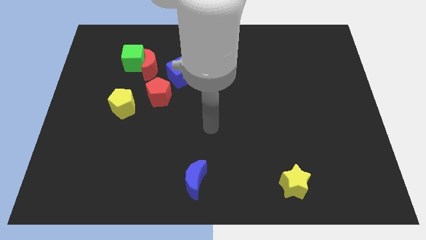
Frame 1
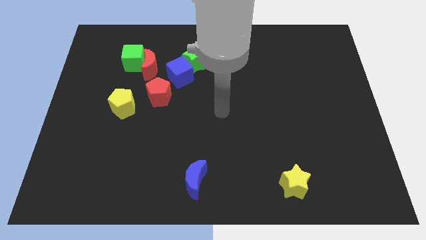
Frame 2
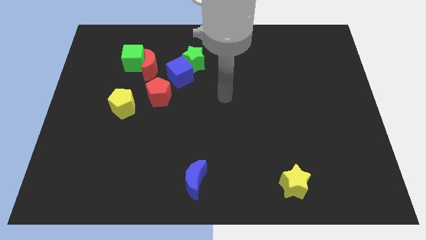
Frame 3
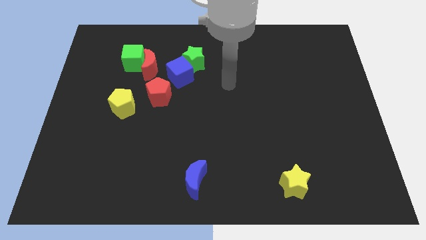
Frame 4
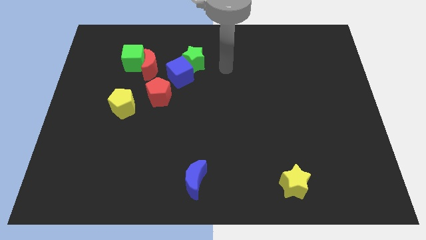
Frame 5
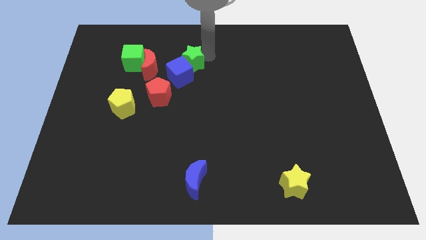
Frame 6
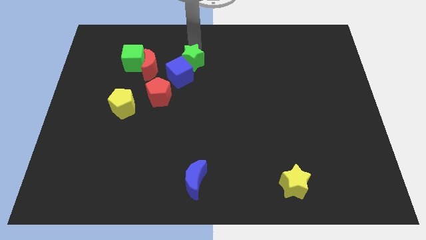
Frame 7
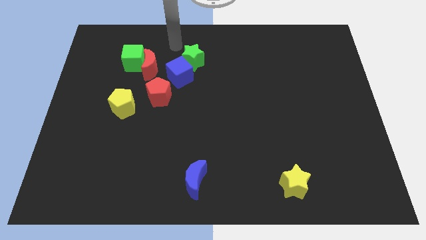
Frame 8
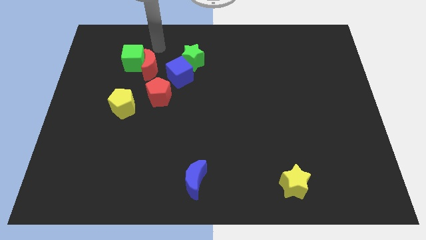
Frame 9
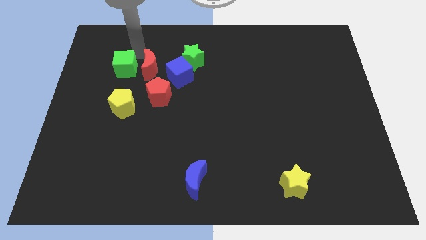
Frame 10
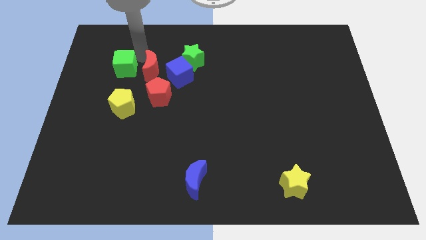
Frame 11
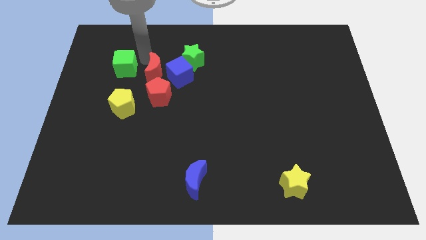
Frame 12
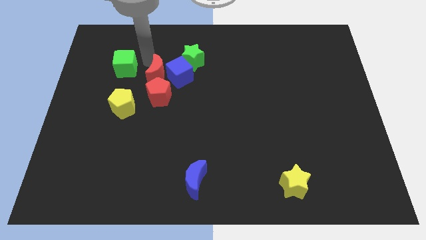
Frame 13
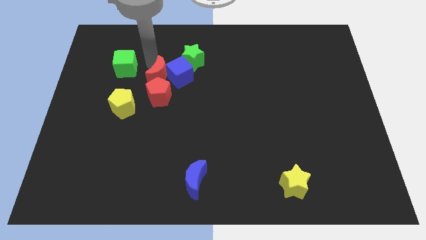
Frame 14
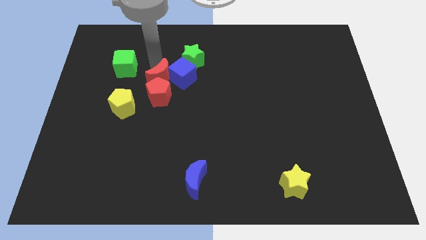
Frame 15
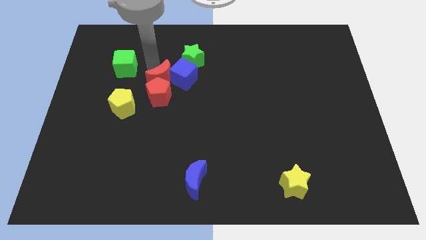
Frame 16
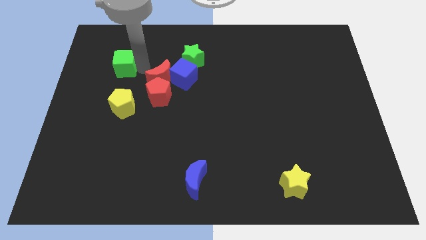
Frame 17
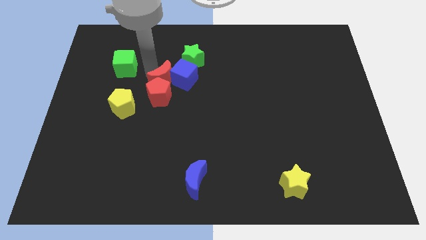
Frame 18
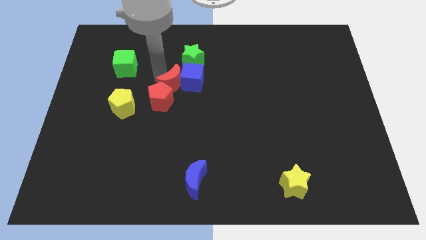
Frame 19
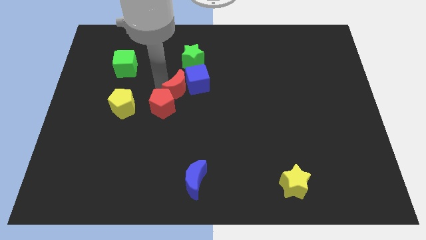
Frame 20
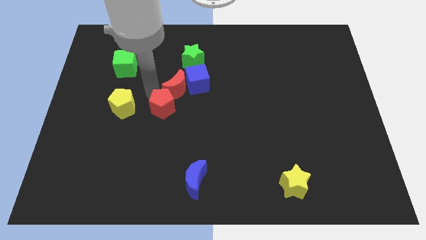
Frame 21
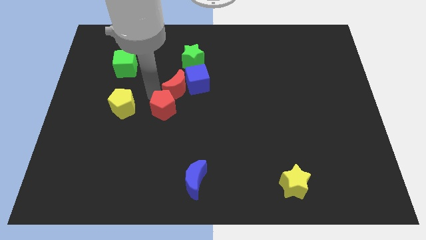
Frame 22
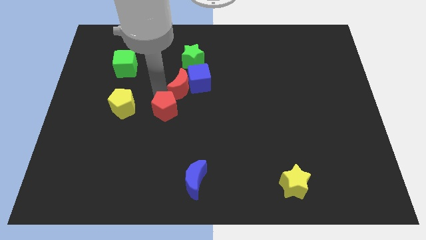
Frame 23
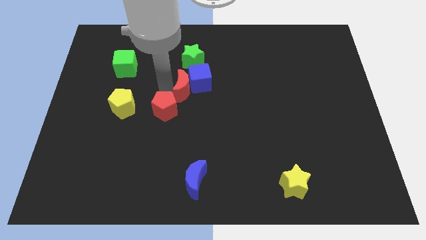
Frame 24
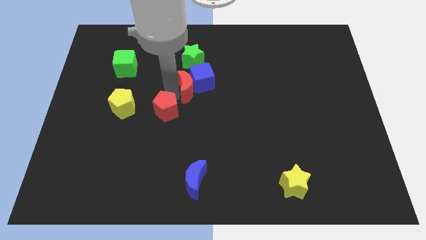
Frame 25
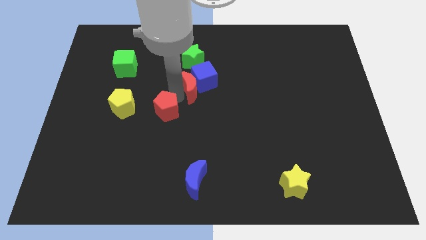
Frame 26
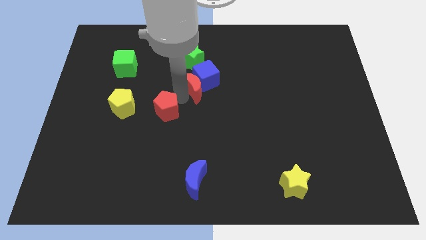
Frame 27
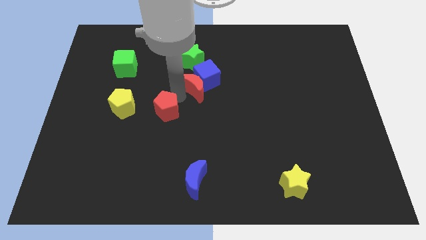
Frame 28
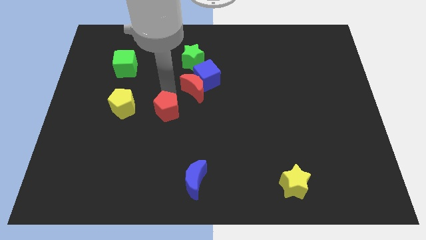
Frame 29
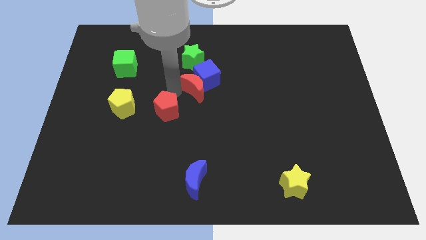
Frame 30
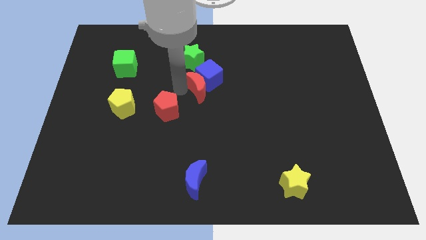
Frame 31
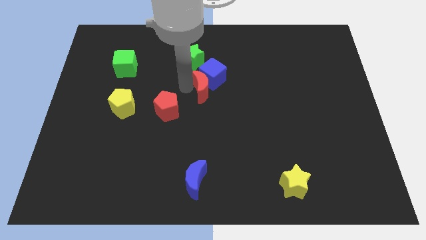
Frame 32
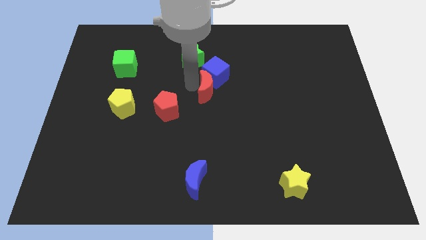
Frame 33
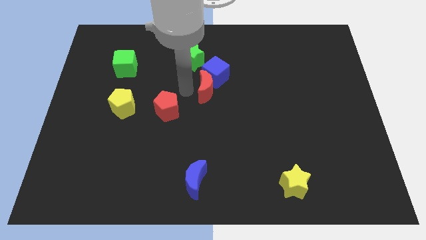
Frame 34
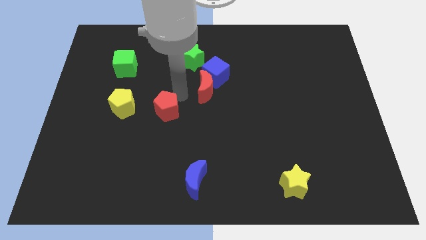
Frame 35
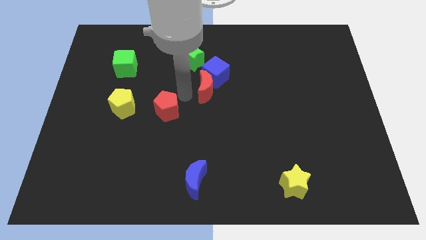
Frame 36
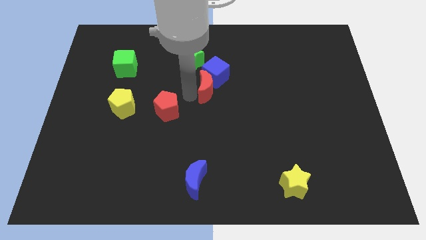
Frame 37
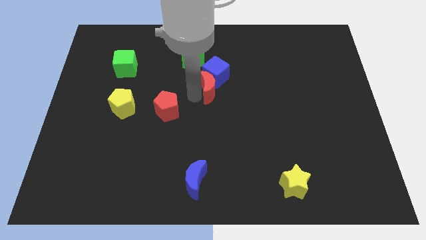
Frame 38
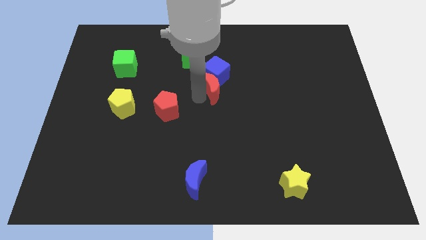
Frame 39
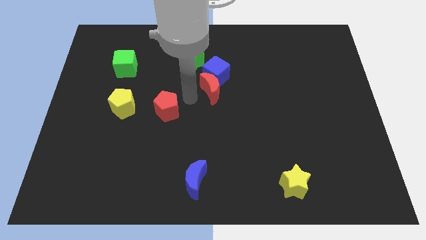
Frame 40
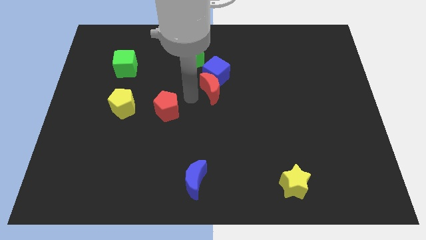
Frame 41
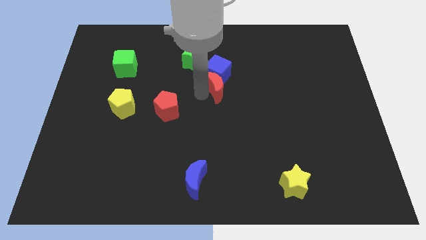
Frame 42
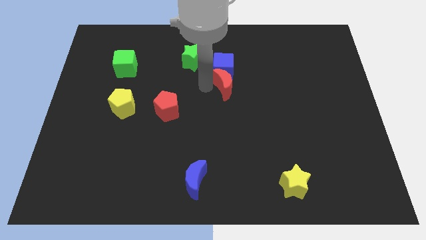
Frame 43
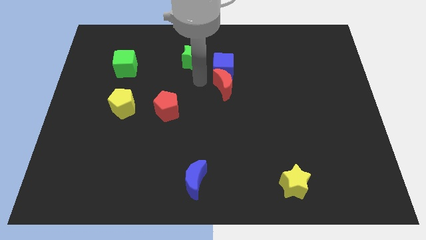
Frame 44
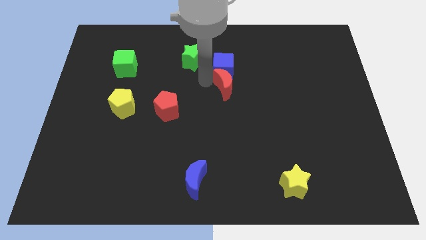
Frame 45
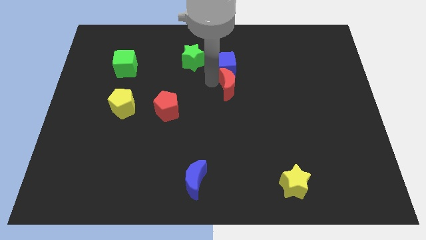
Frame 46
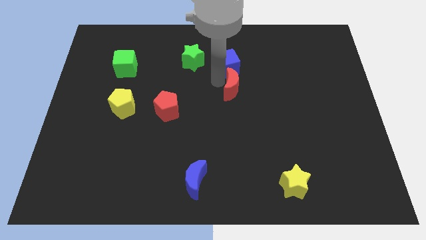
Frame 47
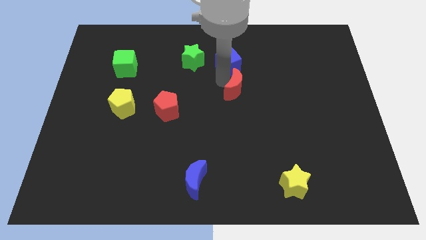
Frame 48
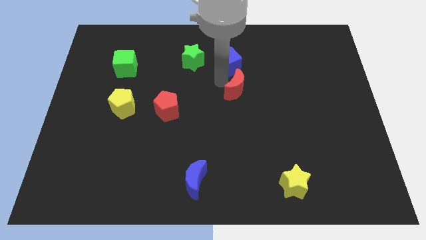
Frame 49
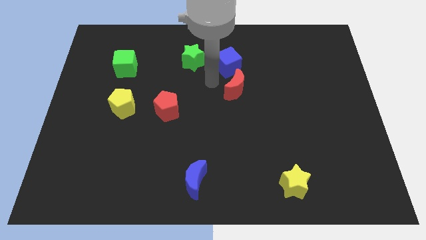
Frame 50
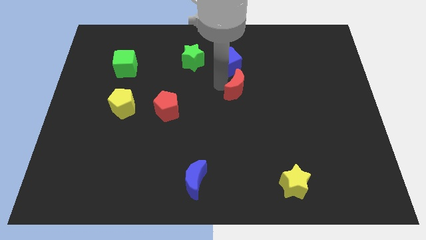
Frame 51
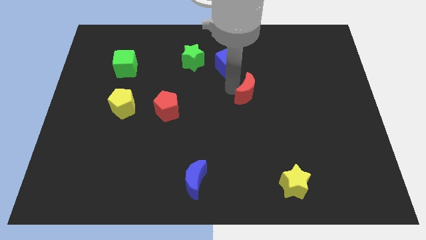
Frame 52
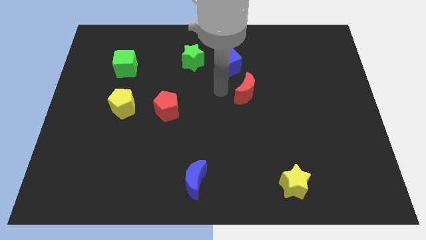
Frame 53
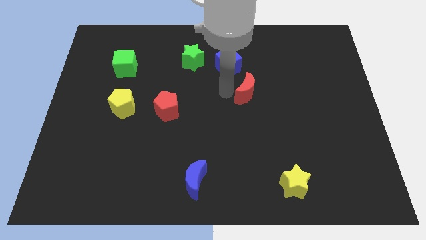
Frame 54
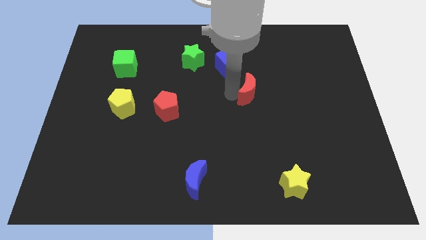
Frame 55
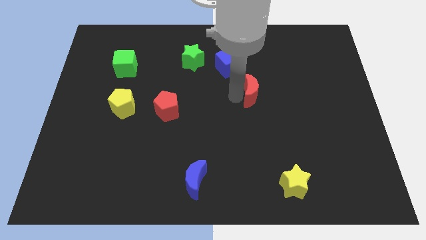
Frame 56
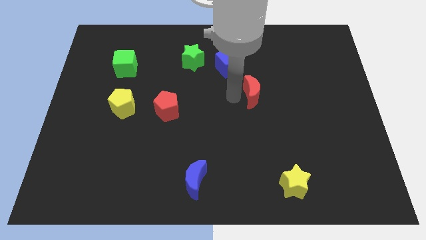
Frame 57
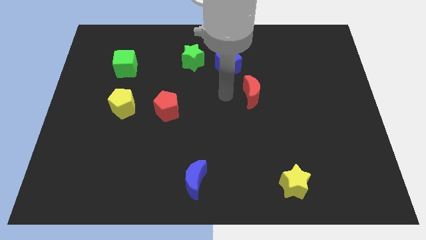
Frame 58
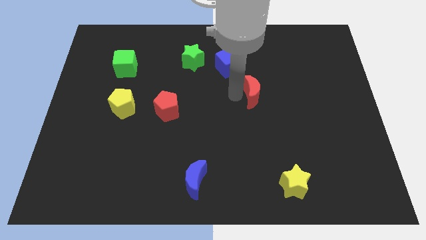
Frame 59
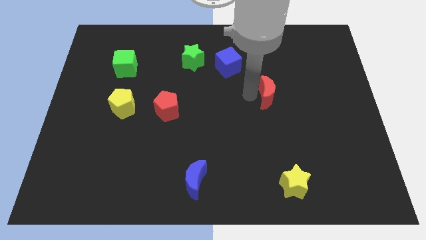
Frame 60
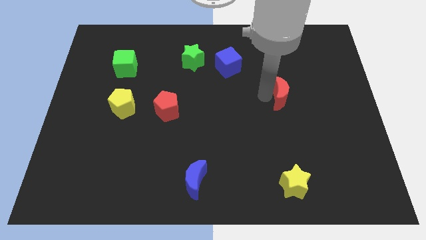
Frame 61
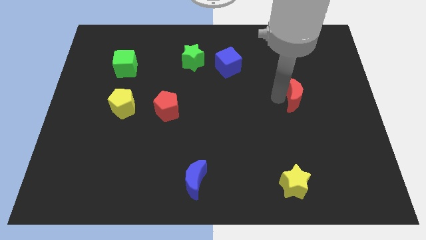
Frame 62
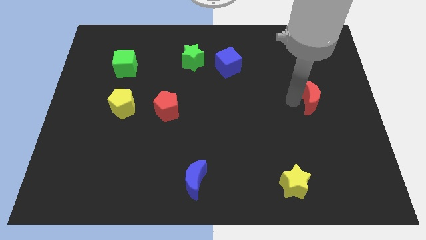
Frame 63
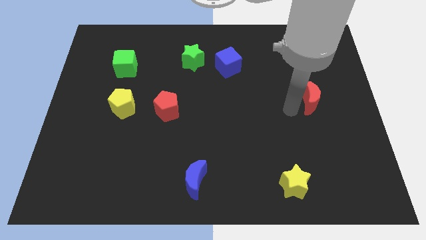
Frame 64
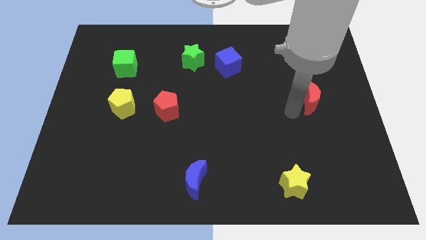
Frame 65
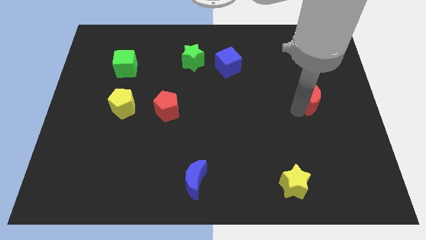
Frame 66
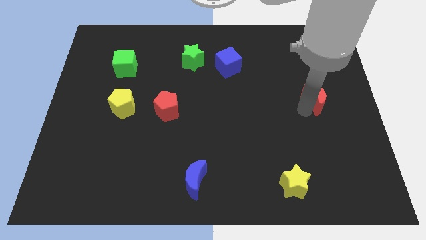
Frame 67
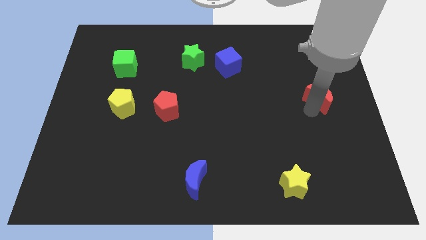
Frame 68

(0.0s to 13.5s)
move the red moon to the center right

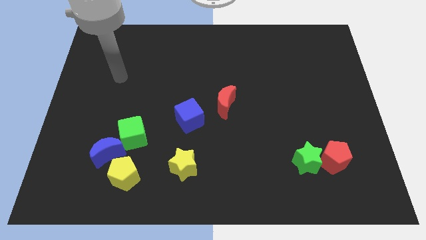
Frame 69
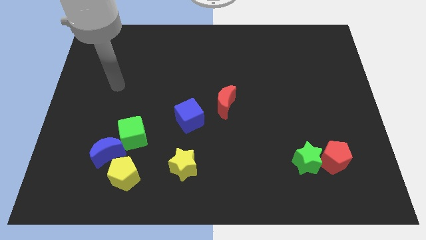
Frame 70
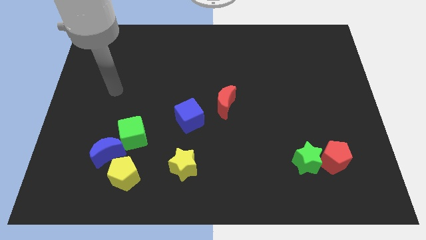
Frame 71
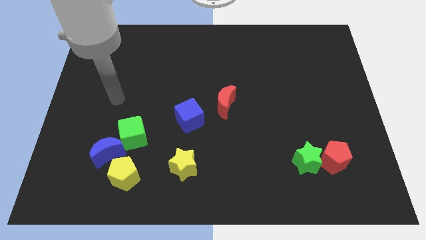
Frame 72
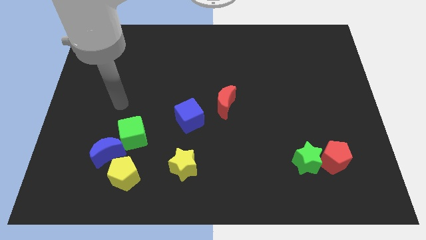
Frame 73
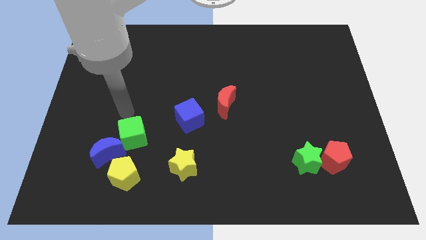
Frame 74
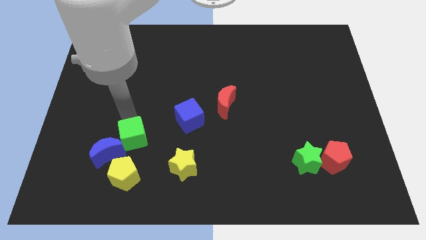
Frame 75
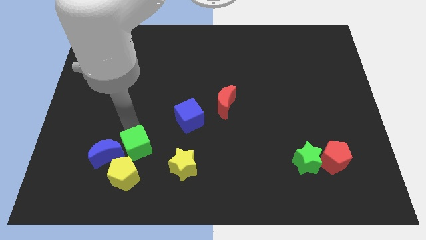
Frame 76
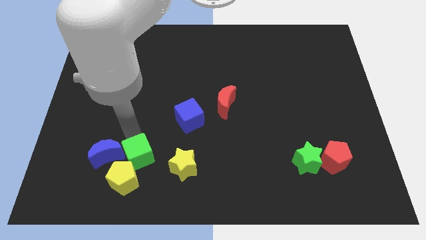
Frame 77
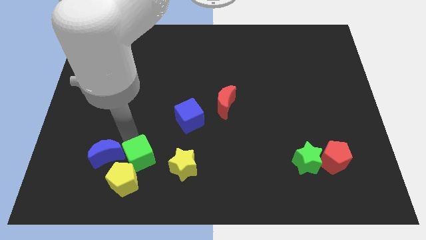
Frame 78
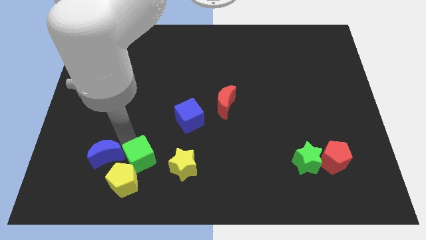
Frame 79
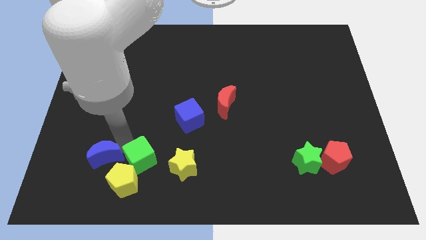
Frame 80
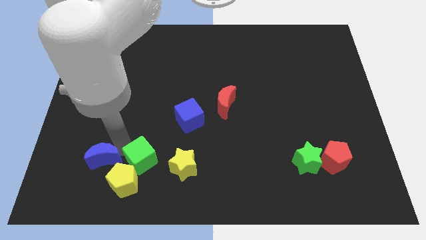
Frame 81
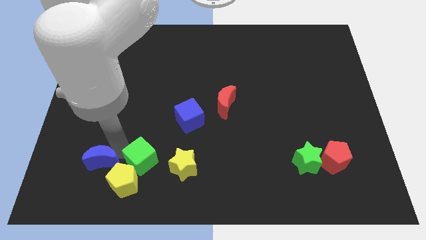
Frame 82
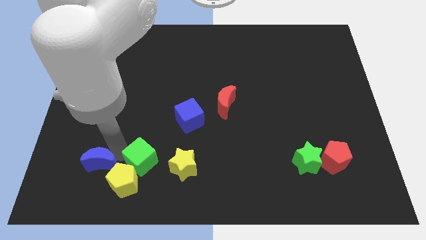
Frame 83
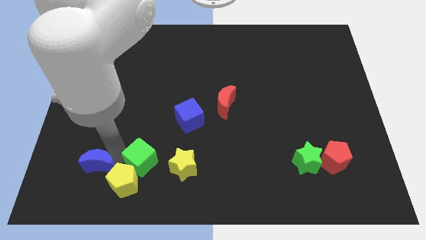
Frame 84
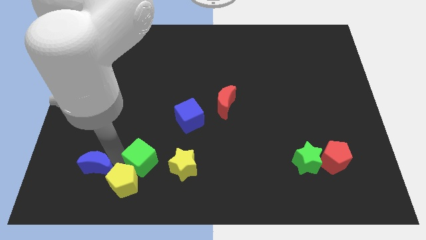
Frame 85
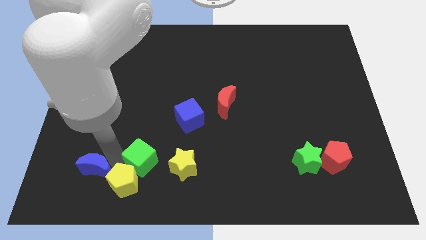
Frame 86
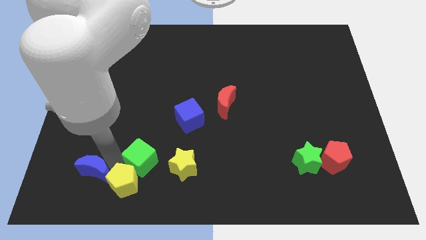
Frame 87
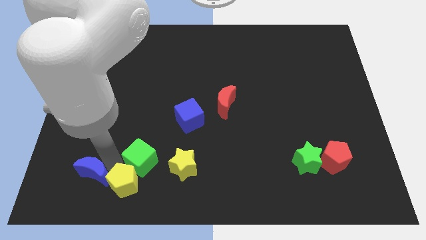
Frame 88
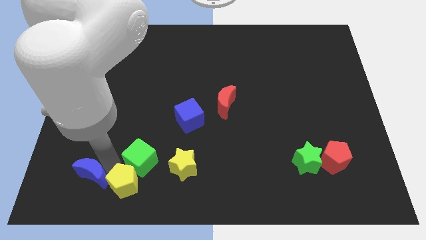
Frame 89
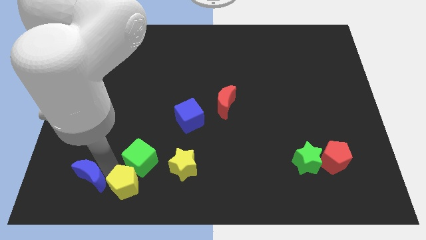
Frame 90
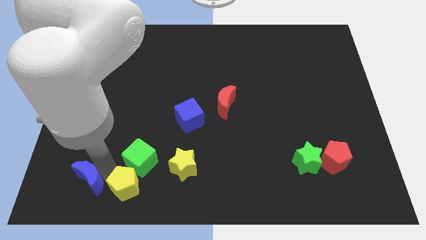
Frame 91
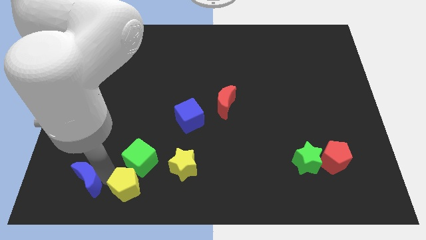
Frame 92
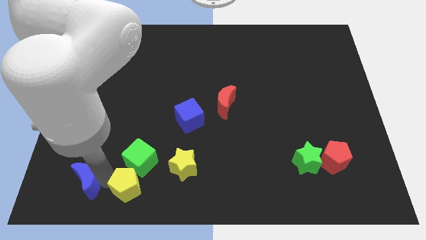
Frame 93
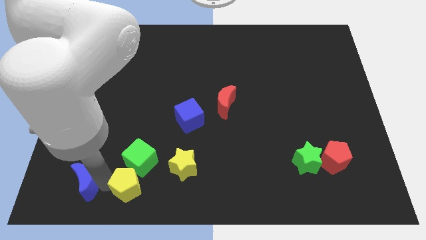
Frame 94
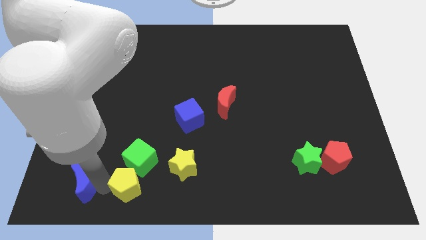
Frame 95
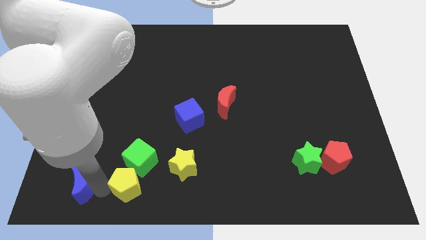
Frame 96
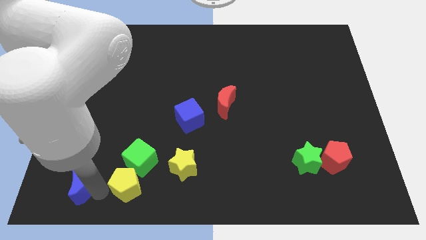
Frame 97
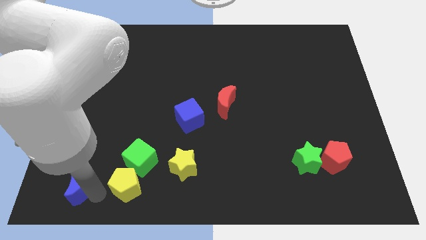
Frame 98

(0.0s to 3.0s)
move the blue moon to the bottom left of the board
